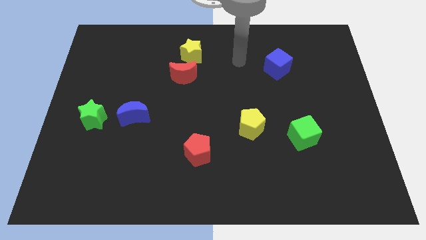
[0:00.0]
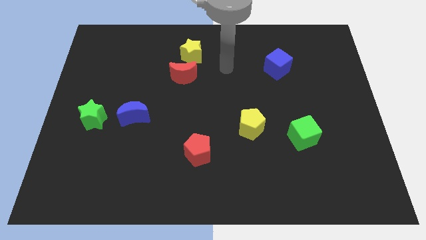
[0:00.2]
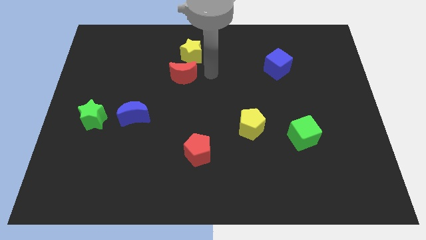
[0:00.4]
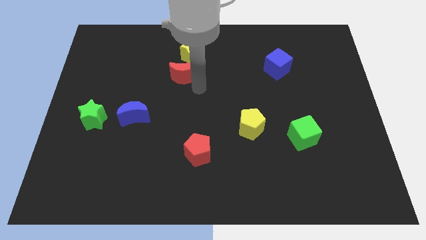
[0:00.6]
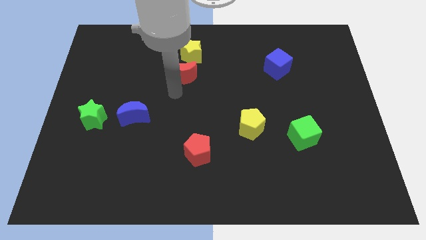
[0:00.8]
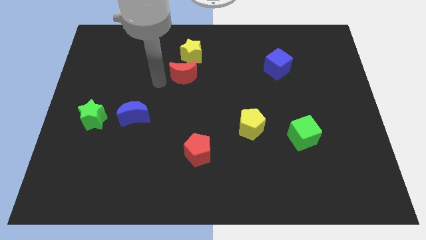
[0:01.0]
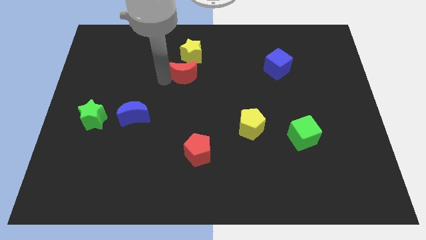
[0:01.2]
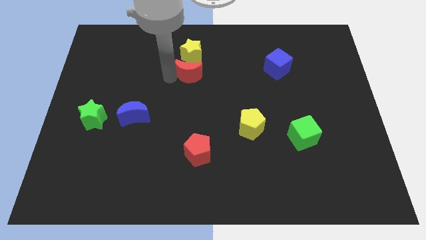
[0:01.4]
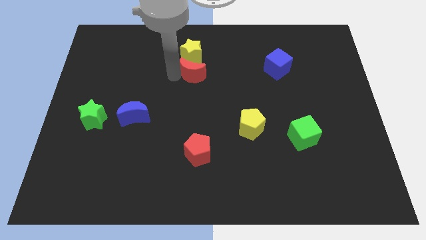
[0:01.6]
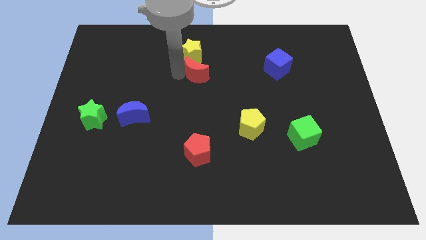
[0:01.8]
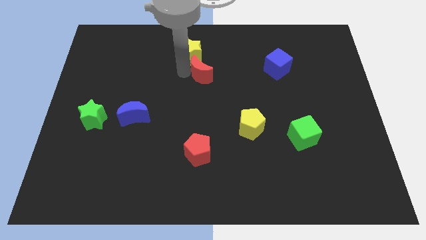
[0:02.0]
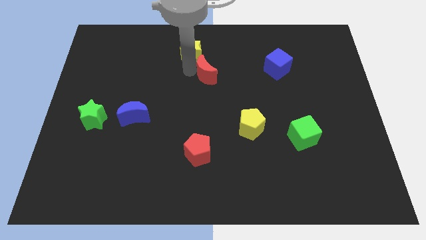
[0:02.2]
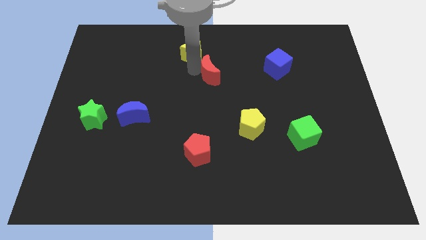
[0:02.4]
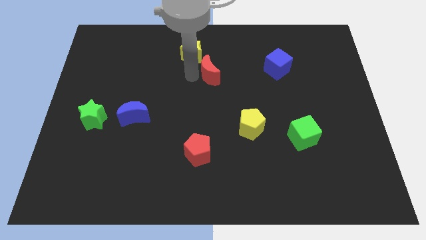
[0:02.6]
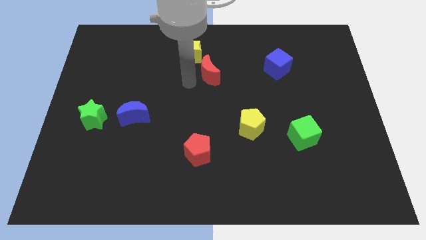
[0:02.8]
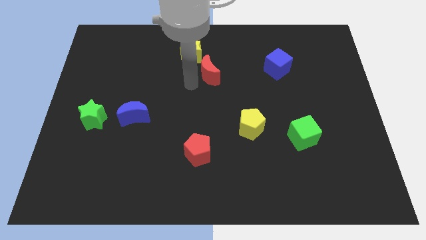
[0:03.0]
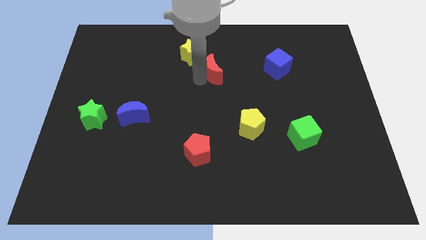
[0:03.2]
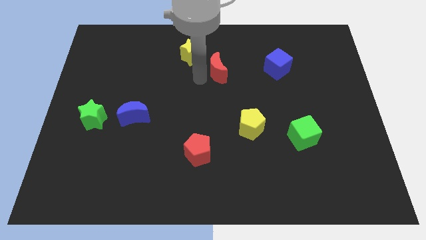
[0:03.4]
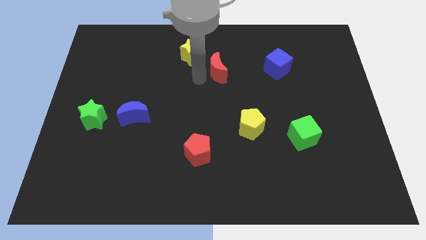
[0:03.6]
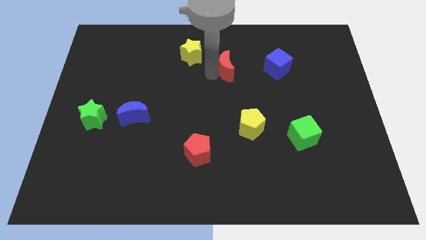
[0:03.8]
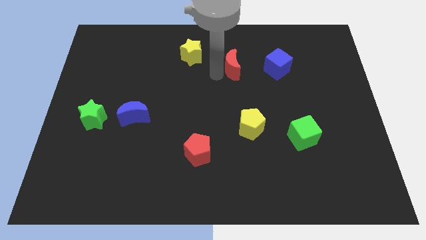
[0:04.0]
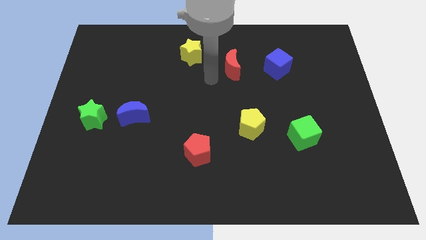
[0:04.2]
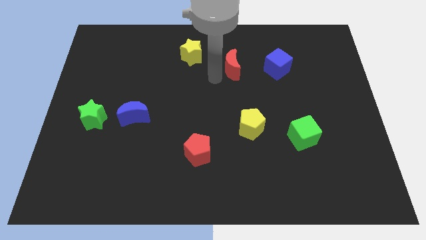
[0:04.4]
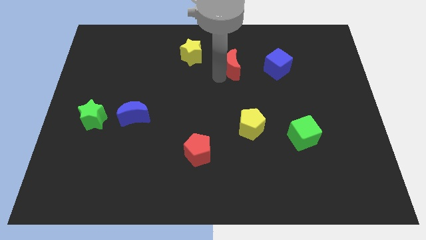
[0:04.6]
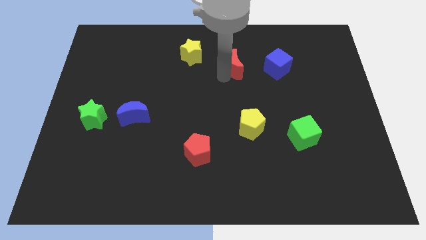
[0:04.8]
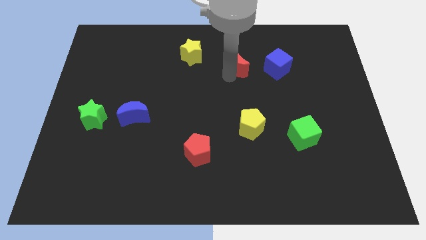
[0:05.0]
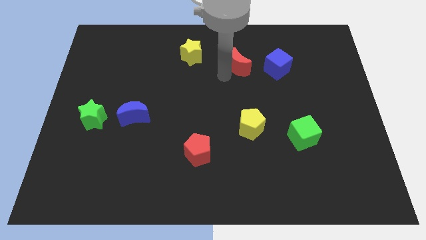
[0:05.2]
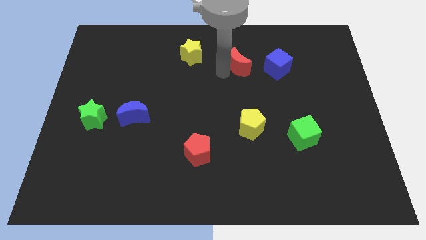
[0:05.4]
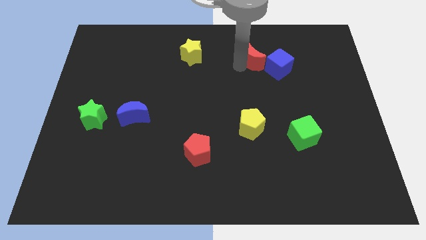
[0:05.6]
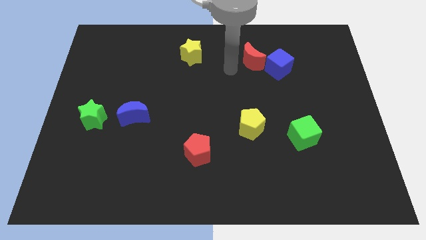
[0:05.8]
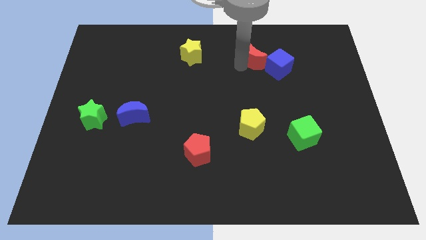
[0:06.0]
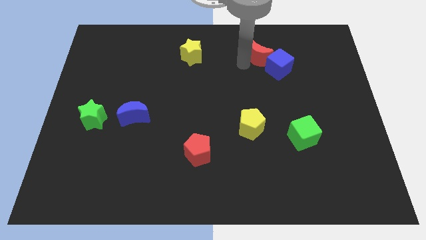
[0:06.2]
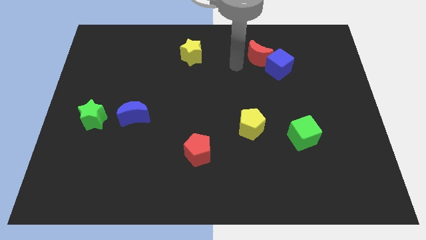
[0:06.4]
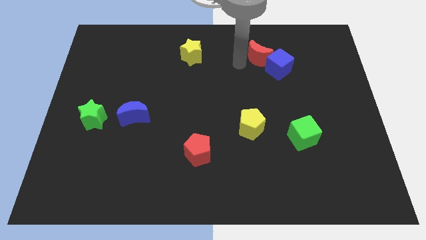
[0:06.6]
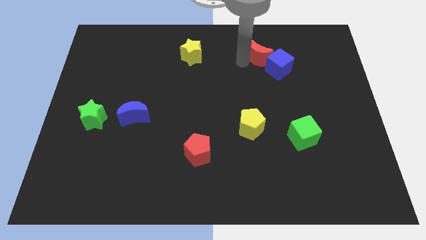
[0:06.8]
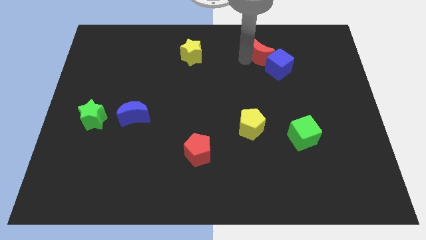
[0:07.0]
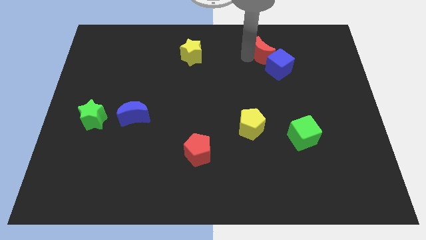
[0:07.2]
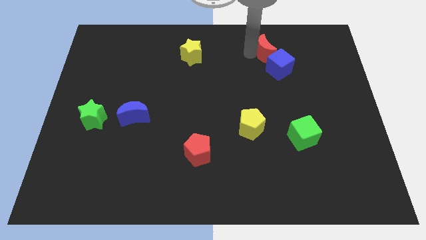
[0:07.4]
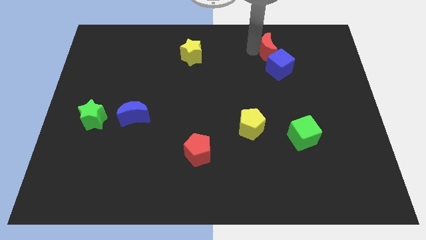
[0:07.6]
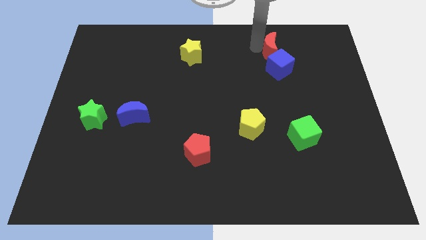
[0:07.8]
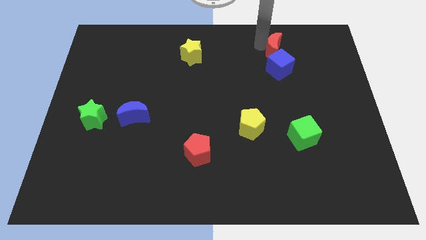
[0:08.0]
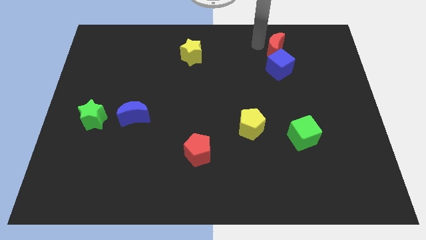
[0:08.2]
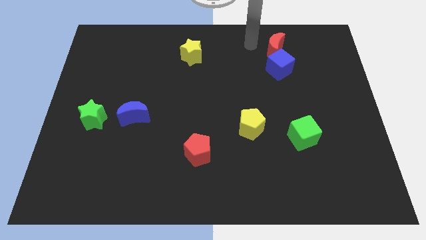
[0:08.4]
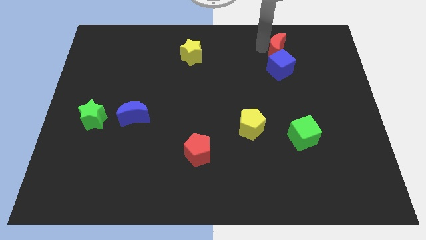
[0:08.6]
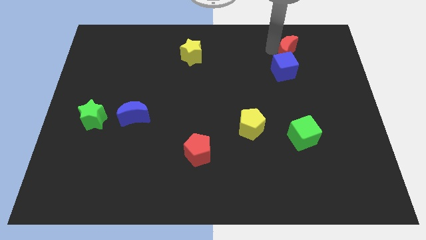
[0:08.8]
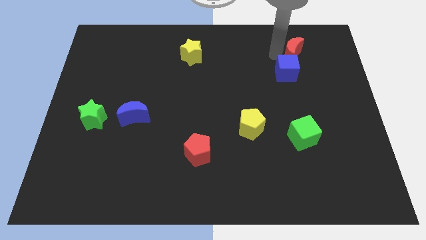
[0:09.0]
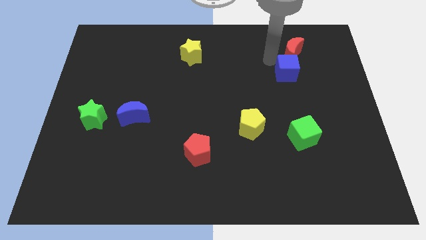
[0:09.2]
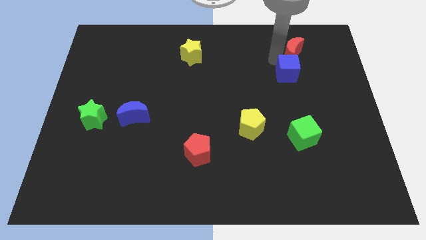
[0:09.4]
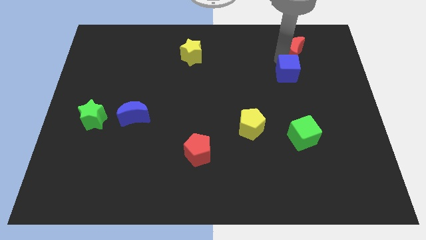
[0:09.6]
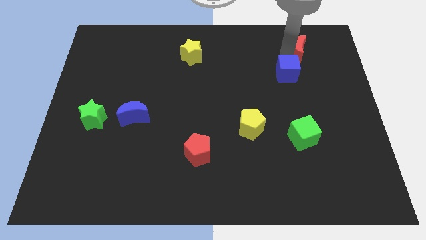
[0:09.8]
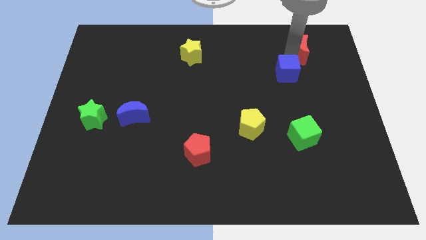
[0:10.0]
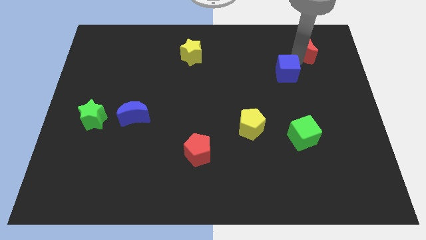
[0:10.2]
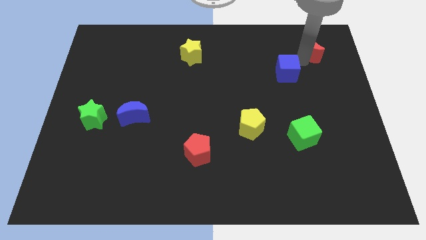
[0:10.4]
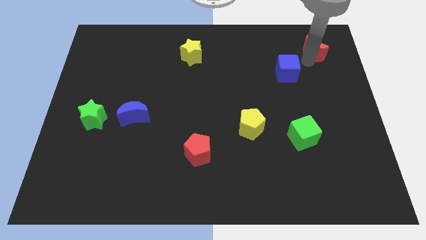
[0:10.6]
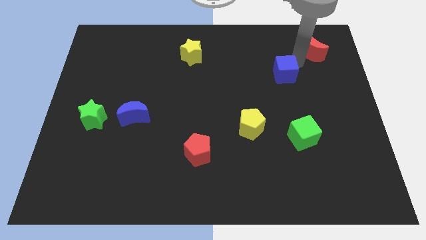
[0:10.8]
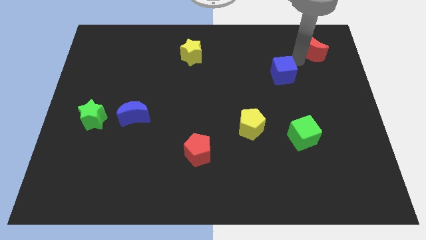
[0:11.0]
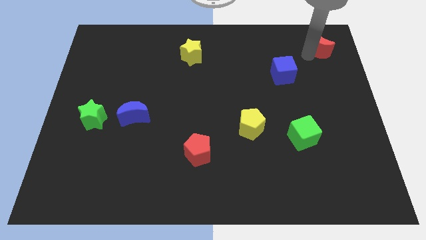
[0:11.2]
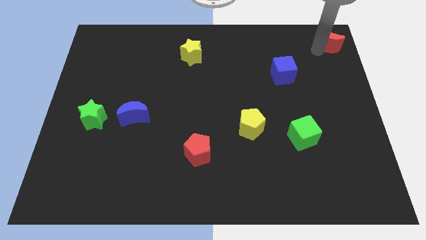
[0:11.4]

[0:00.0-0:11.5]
slide the red moon to the top right corner

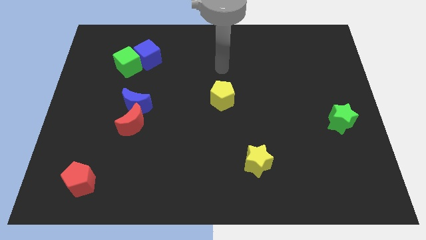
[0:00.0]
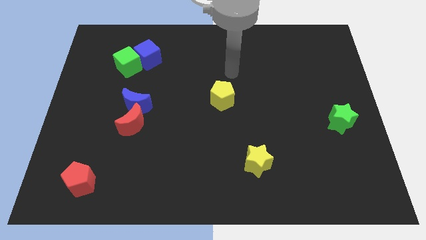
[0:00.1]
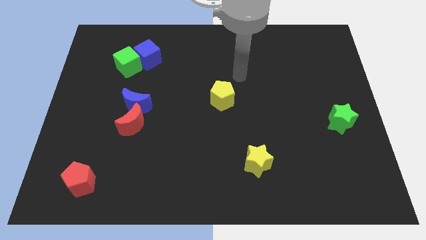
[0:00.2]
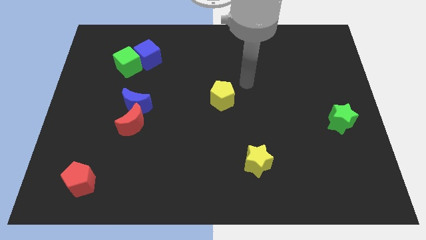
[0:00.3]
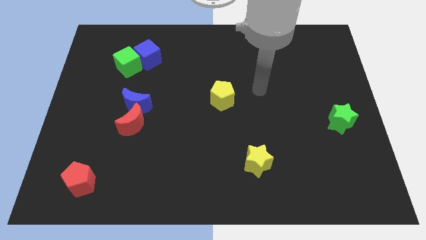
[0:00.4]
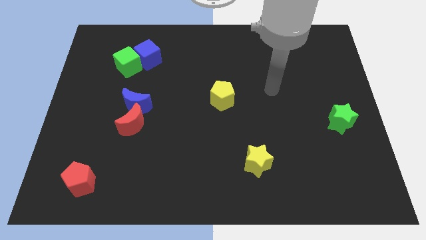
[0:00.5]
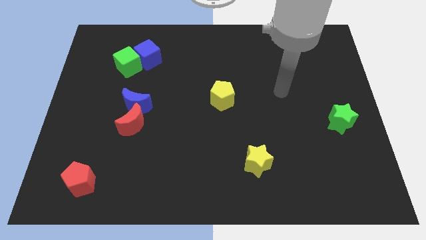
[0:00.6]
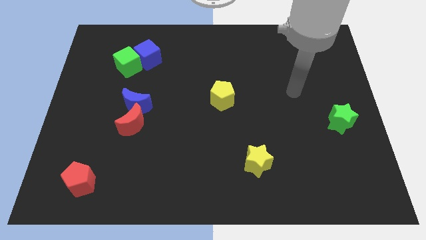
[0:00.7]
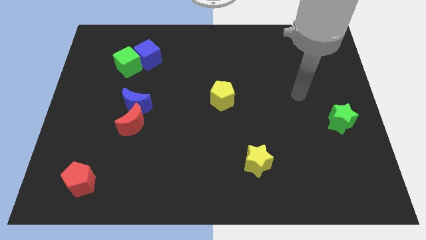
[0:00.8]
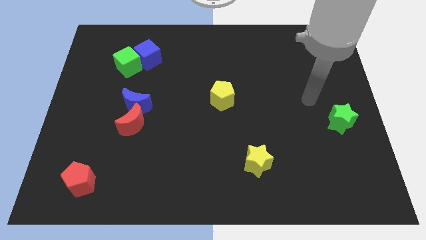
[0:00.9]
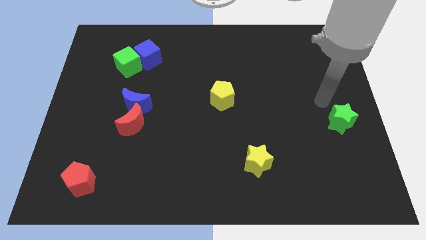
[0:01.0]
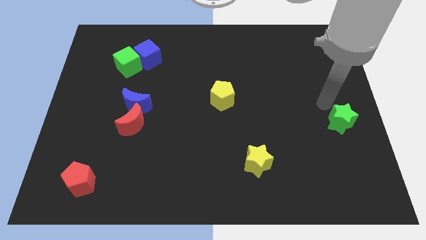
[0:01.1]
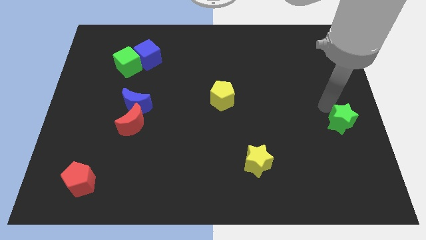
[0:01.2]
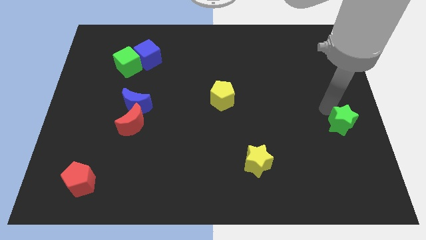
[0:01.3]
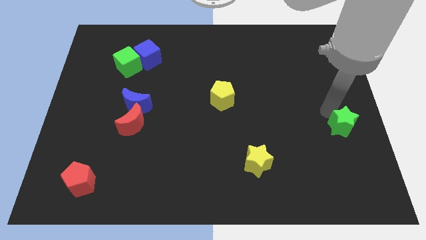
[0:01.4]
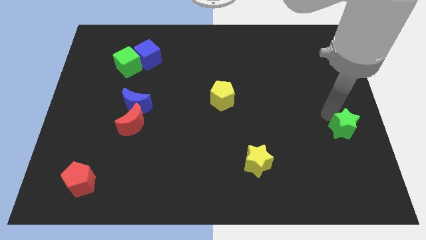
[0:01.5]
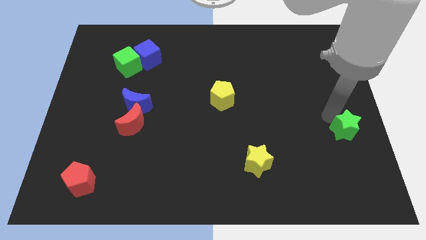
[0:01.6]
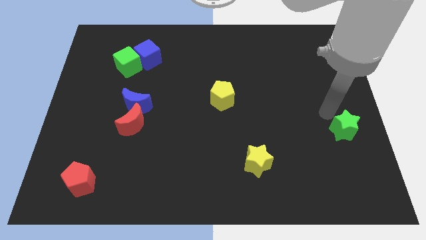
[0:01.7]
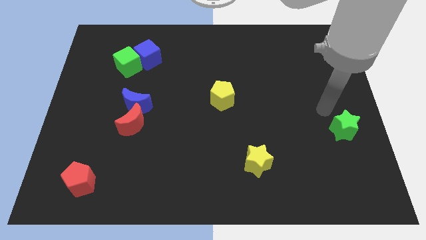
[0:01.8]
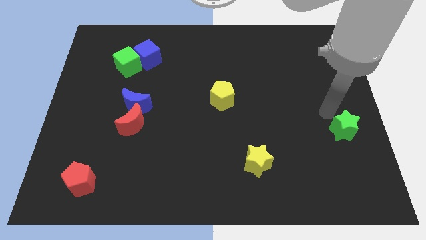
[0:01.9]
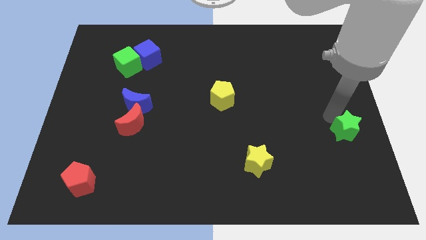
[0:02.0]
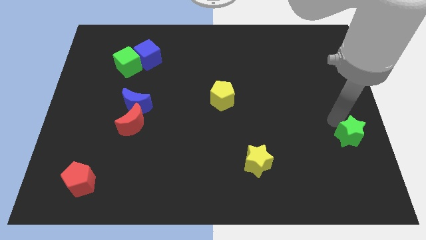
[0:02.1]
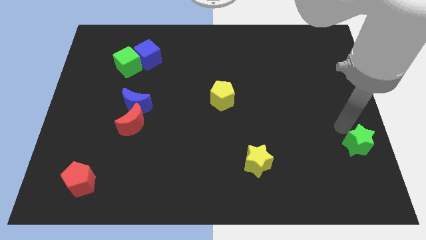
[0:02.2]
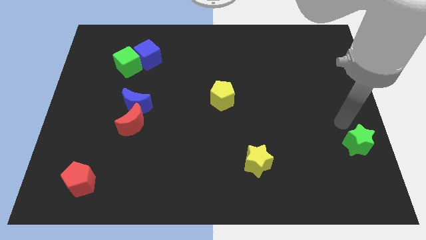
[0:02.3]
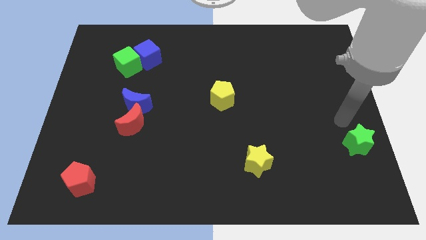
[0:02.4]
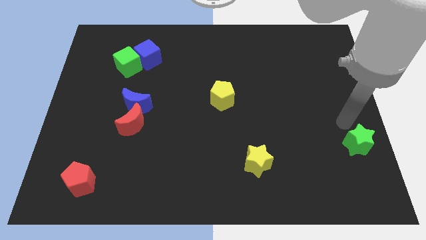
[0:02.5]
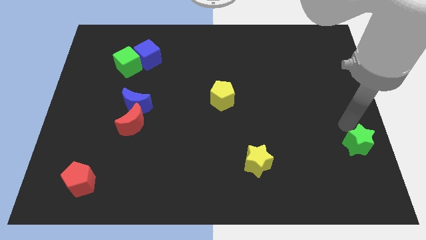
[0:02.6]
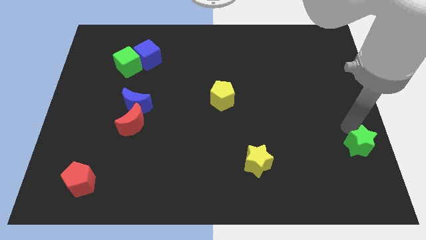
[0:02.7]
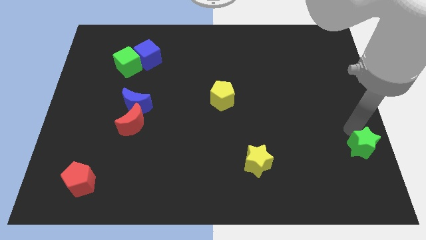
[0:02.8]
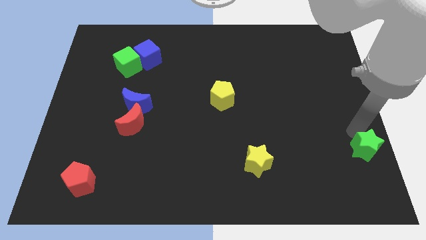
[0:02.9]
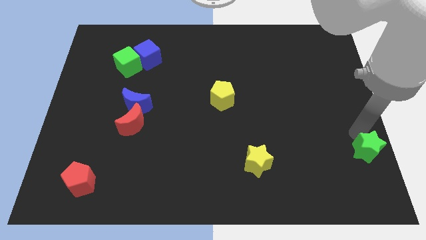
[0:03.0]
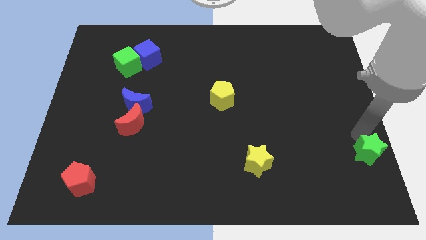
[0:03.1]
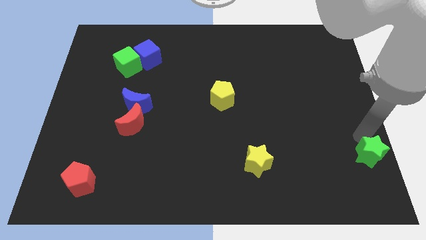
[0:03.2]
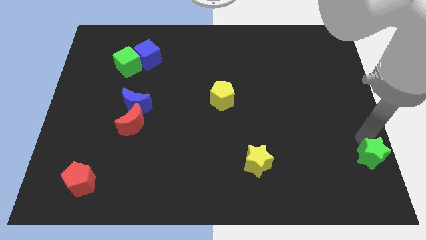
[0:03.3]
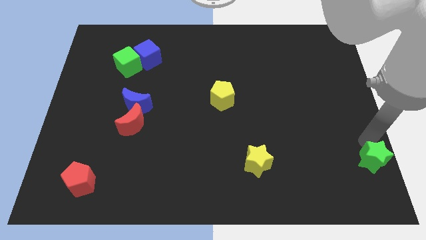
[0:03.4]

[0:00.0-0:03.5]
push the green star to the lower right corner
